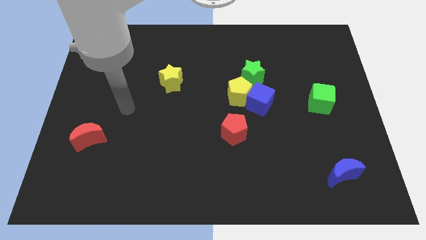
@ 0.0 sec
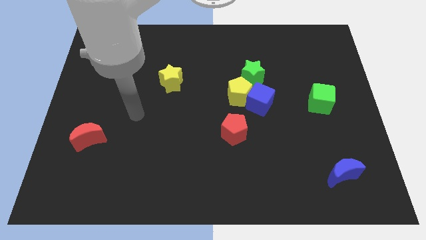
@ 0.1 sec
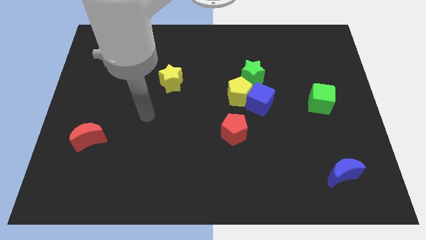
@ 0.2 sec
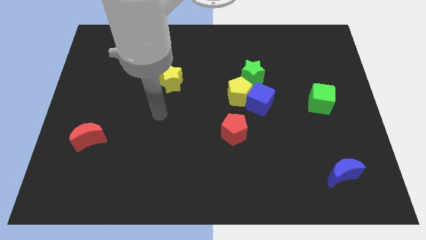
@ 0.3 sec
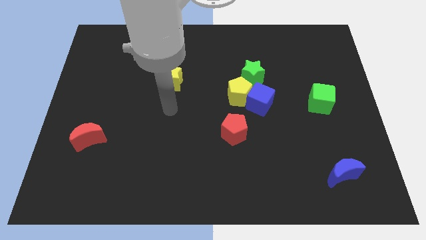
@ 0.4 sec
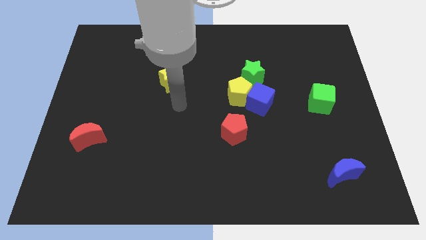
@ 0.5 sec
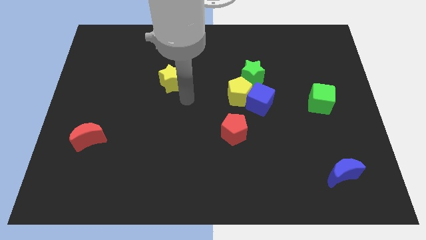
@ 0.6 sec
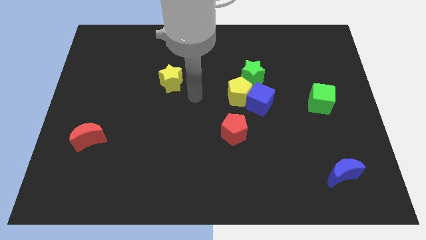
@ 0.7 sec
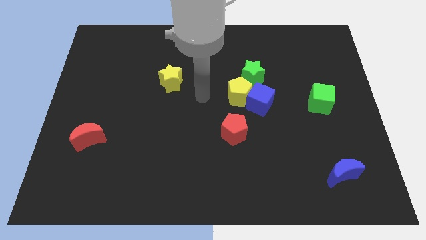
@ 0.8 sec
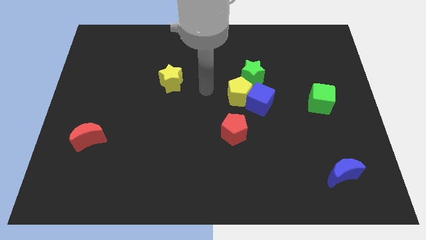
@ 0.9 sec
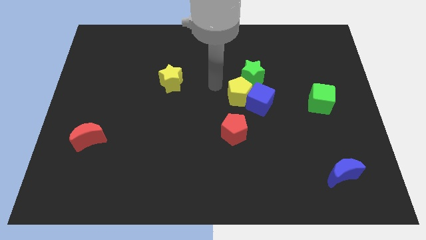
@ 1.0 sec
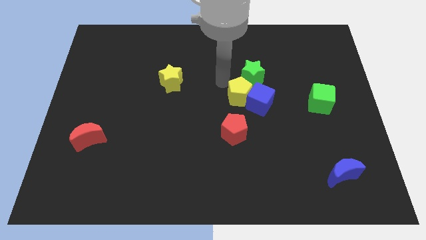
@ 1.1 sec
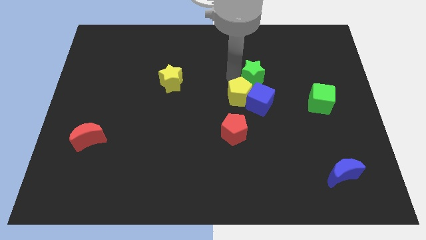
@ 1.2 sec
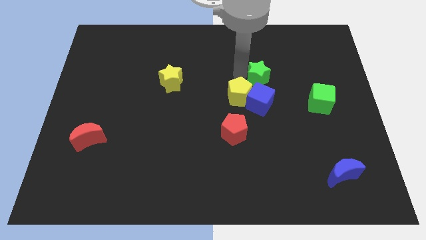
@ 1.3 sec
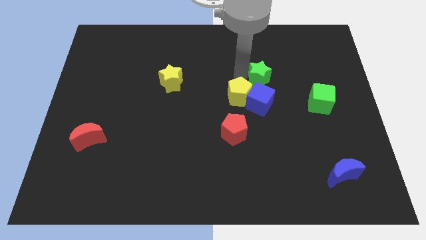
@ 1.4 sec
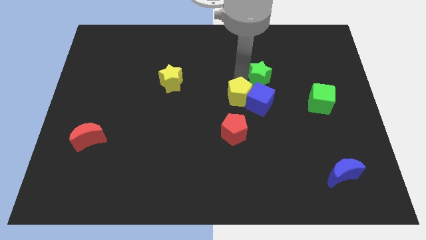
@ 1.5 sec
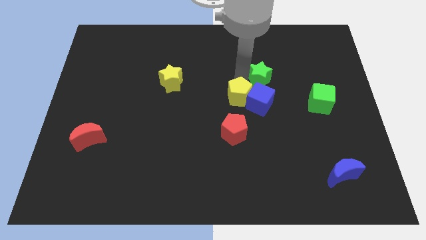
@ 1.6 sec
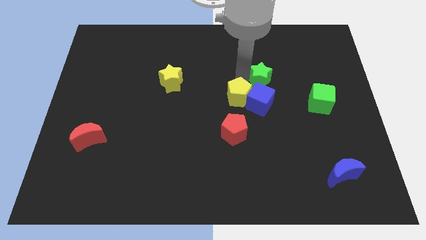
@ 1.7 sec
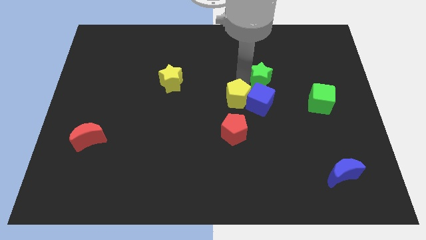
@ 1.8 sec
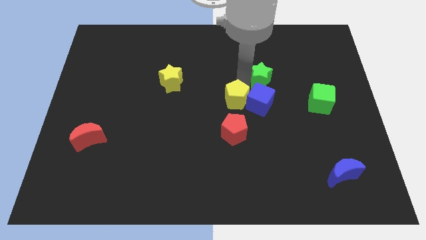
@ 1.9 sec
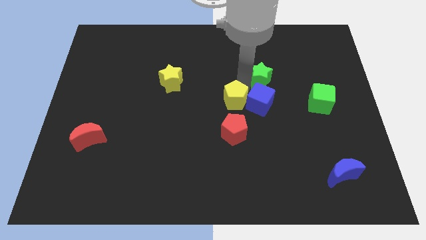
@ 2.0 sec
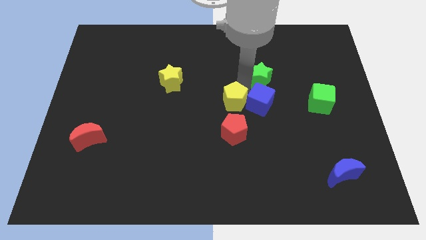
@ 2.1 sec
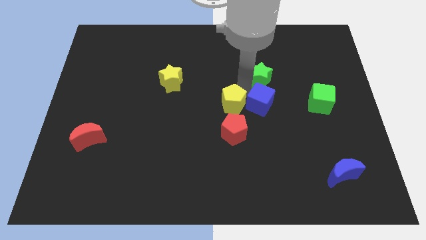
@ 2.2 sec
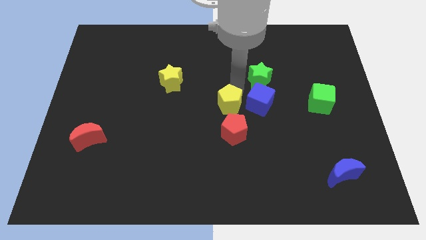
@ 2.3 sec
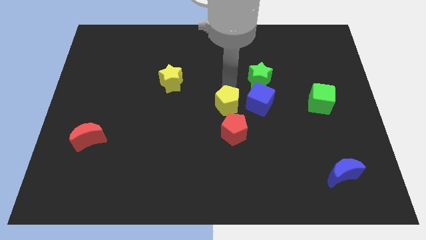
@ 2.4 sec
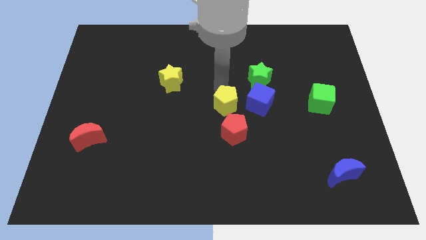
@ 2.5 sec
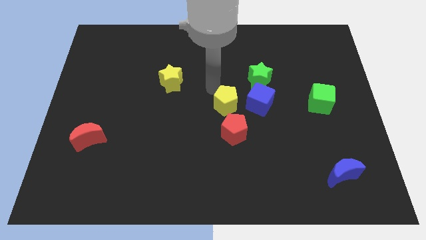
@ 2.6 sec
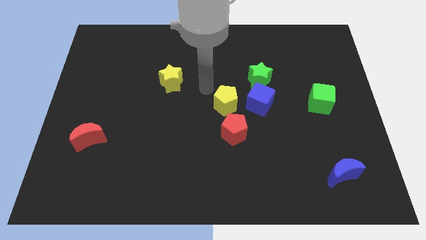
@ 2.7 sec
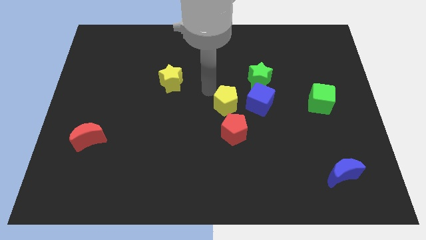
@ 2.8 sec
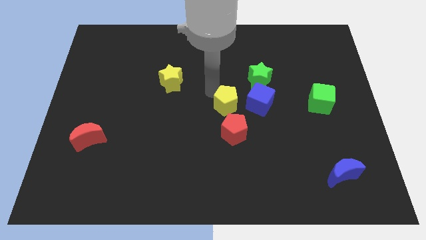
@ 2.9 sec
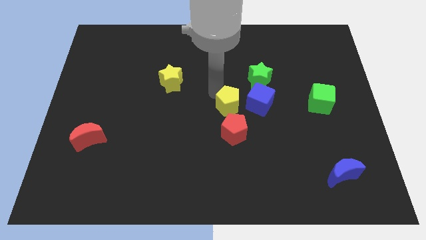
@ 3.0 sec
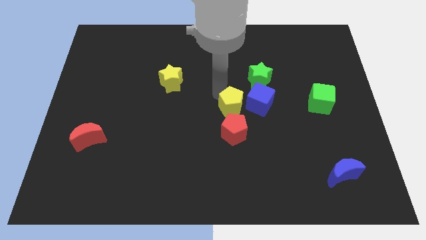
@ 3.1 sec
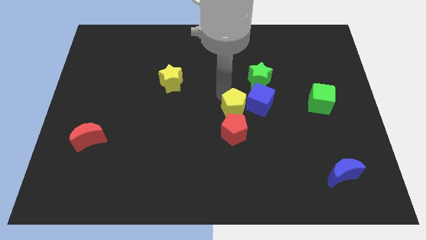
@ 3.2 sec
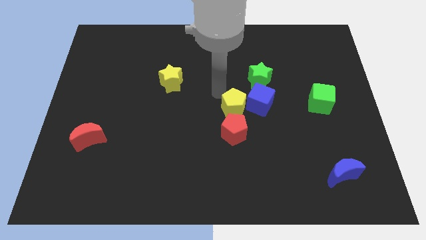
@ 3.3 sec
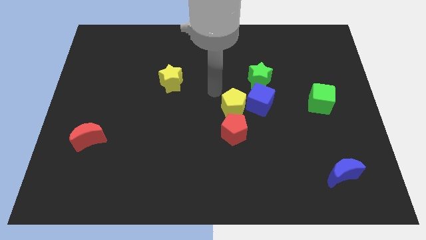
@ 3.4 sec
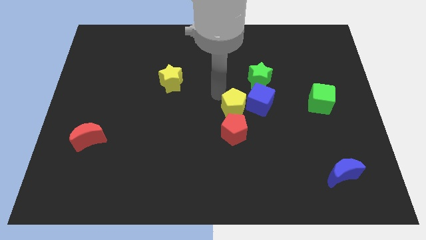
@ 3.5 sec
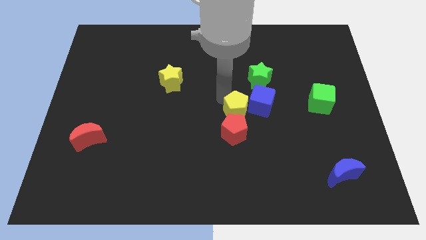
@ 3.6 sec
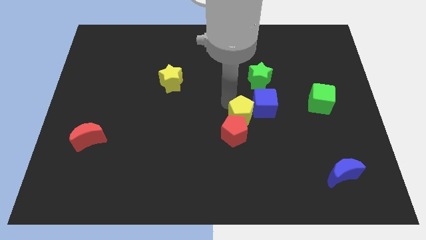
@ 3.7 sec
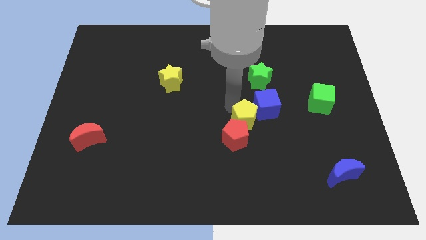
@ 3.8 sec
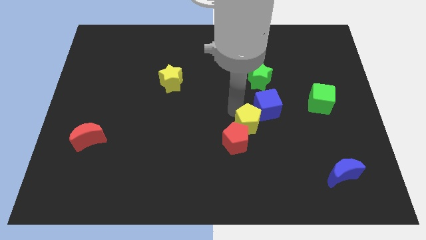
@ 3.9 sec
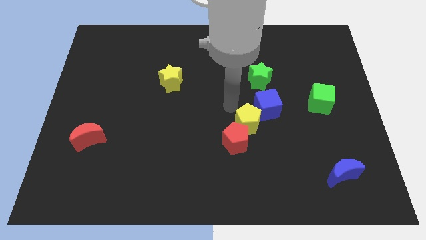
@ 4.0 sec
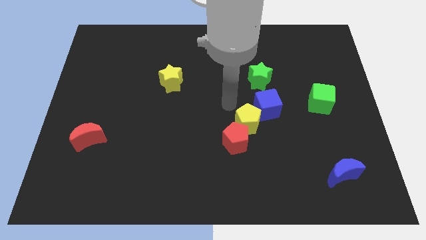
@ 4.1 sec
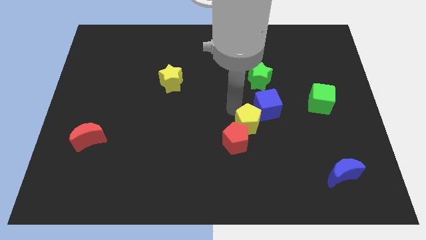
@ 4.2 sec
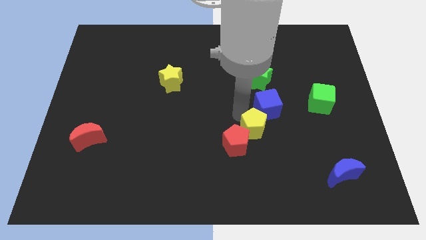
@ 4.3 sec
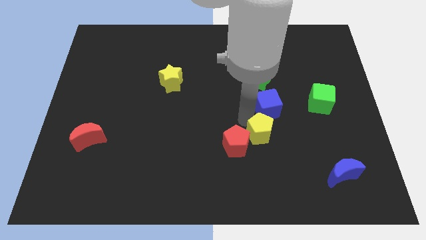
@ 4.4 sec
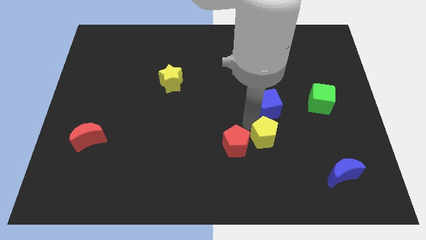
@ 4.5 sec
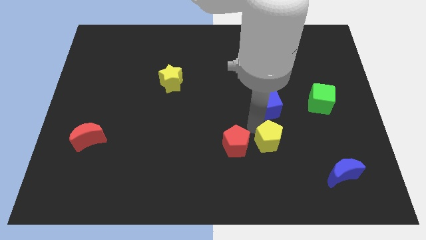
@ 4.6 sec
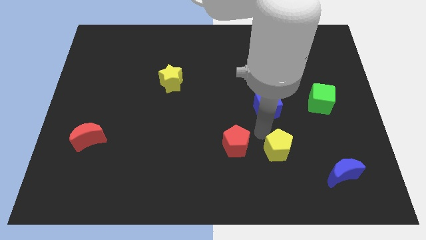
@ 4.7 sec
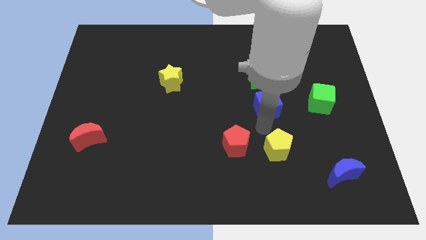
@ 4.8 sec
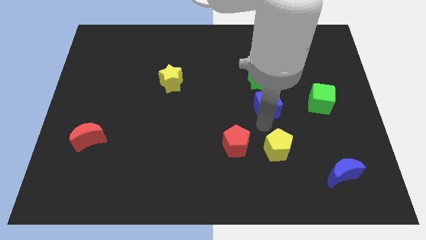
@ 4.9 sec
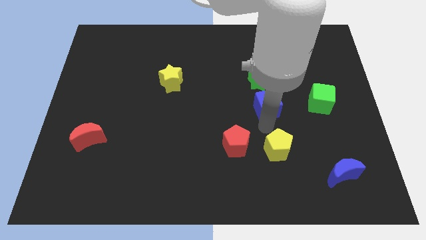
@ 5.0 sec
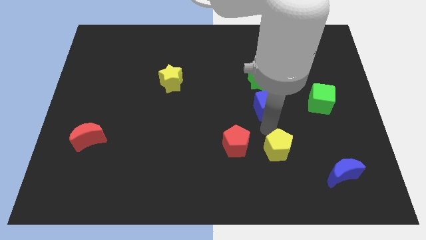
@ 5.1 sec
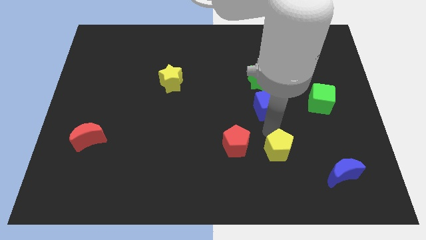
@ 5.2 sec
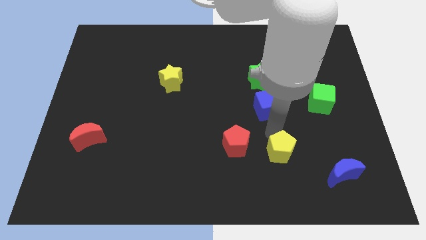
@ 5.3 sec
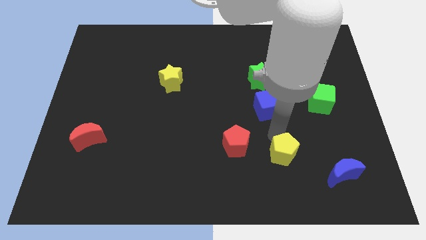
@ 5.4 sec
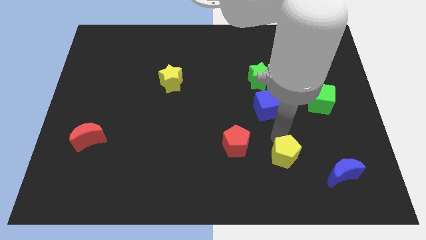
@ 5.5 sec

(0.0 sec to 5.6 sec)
move the yellow pentagon left of the blue moon
